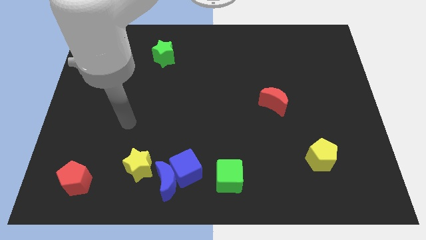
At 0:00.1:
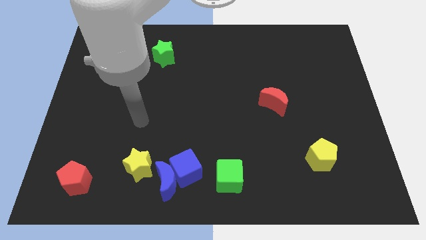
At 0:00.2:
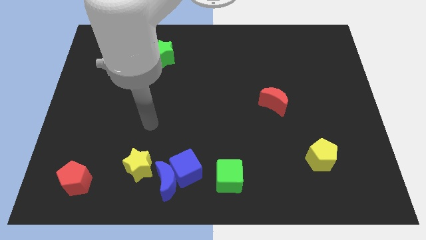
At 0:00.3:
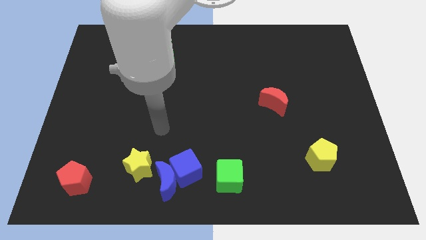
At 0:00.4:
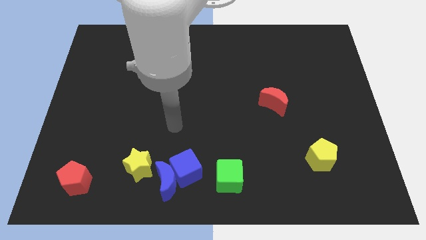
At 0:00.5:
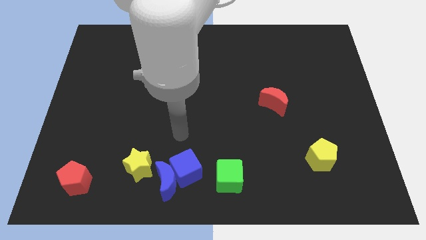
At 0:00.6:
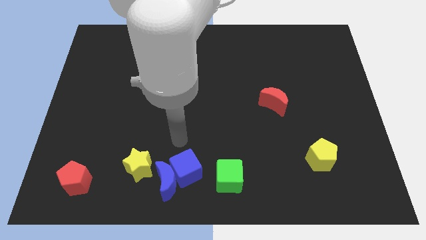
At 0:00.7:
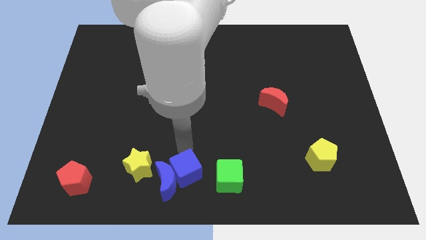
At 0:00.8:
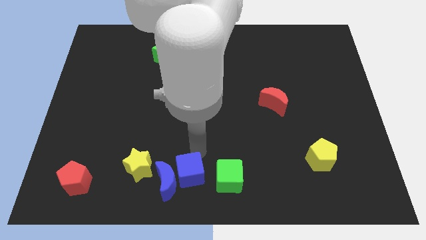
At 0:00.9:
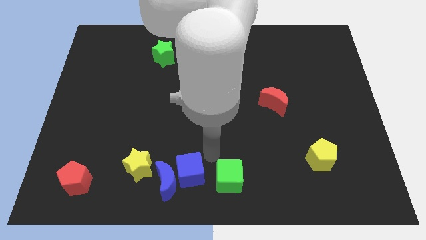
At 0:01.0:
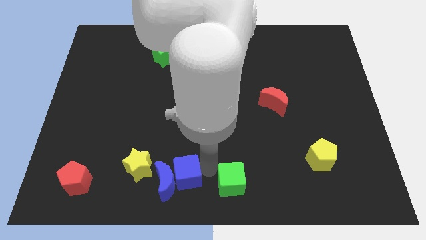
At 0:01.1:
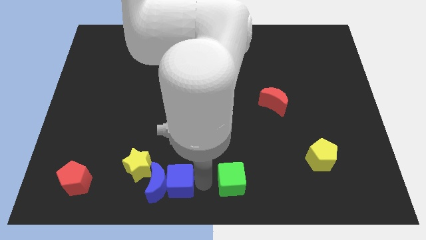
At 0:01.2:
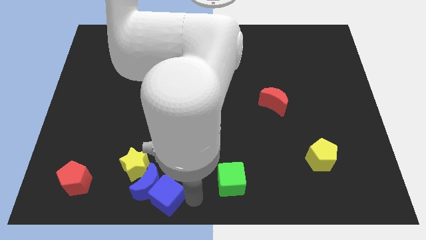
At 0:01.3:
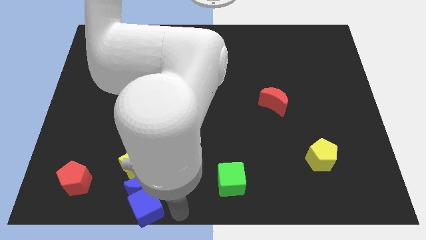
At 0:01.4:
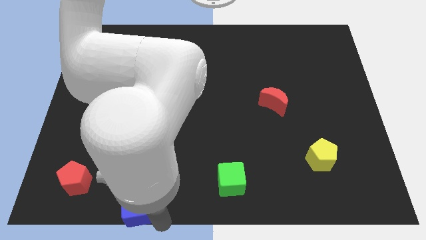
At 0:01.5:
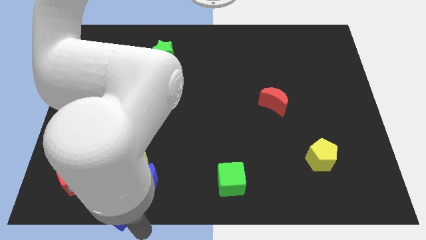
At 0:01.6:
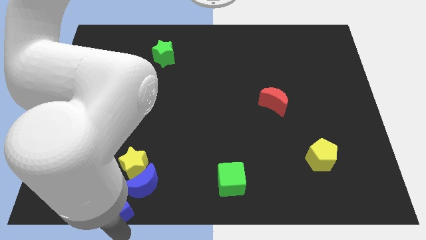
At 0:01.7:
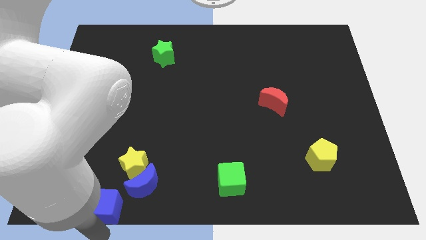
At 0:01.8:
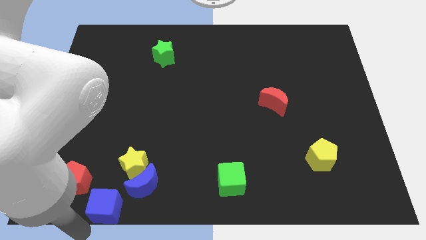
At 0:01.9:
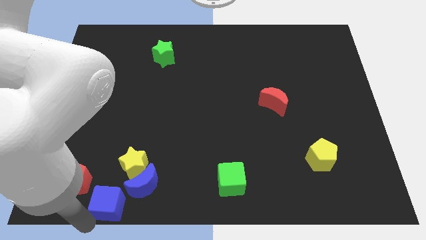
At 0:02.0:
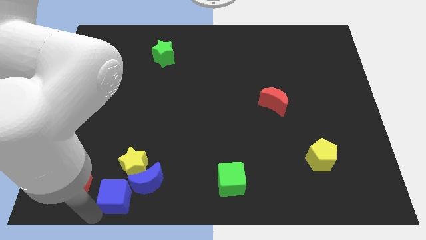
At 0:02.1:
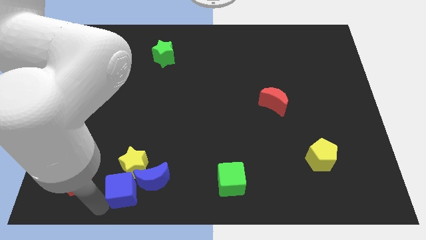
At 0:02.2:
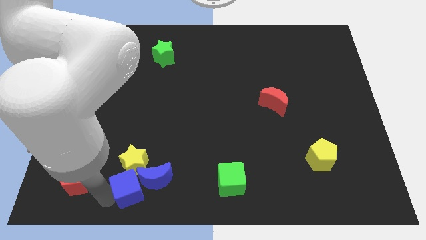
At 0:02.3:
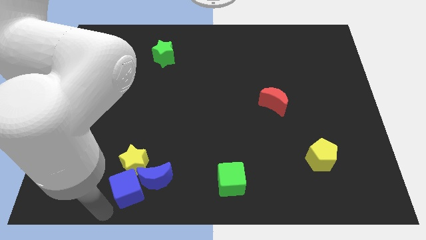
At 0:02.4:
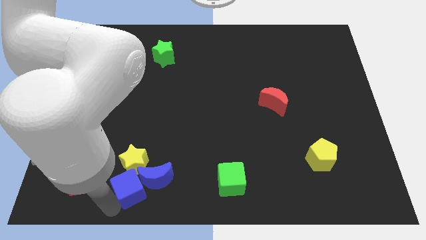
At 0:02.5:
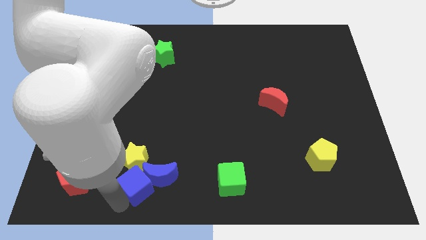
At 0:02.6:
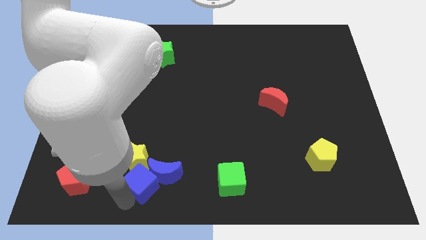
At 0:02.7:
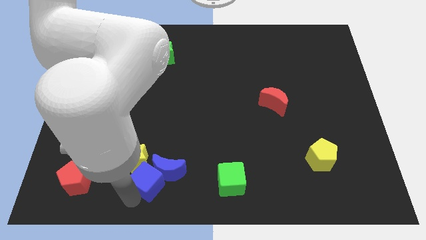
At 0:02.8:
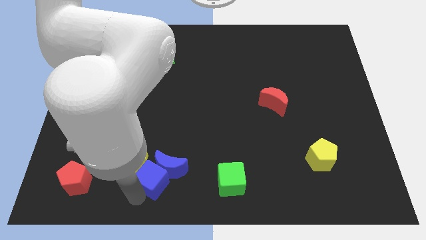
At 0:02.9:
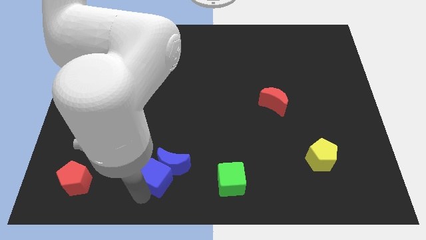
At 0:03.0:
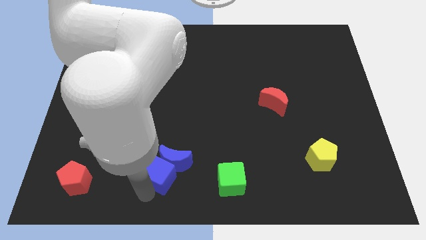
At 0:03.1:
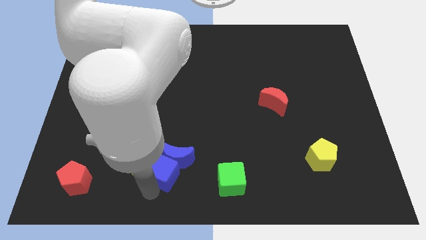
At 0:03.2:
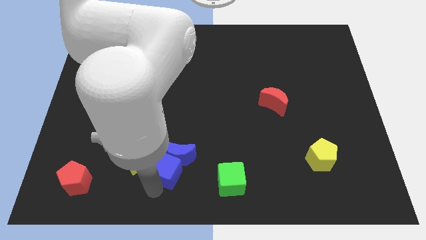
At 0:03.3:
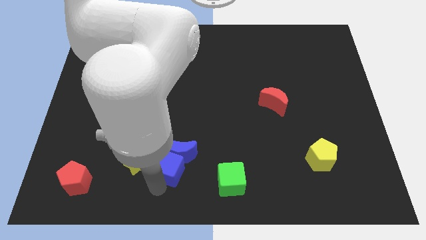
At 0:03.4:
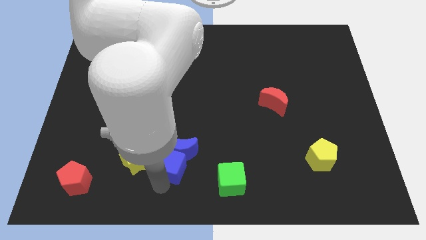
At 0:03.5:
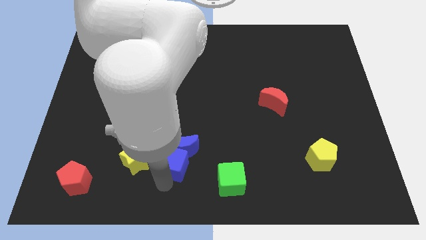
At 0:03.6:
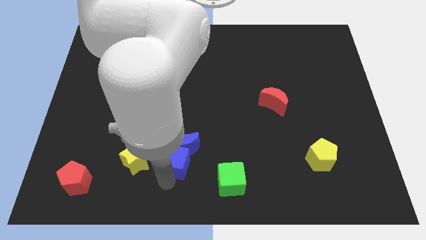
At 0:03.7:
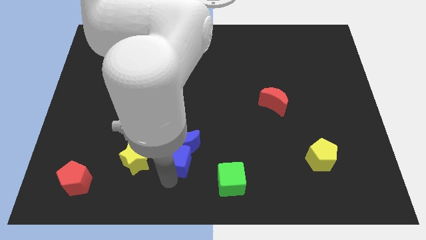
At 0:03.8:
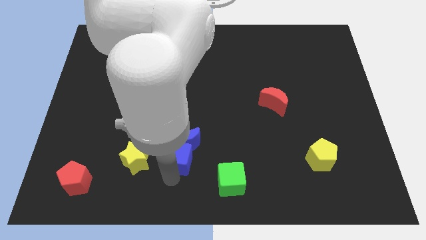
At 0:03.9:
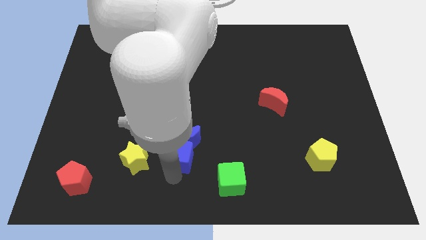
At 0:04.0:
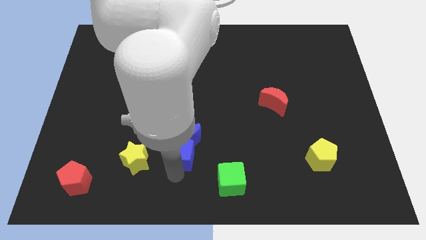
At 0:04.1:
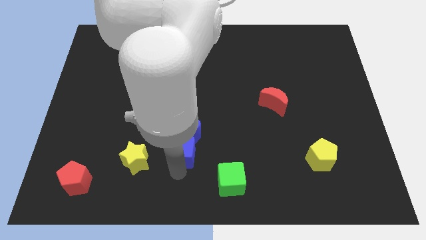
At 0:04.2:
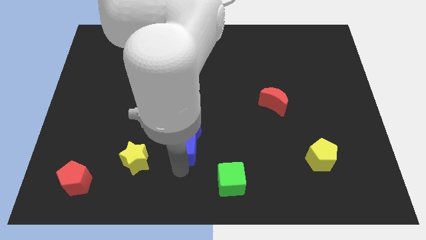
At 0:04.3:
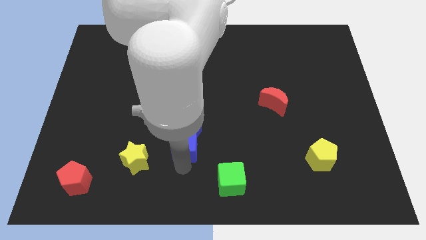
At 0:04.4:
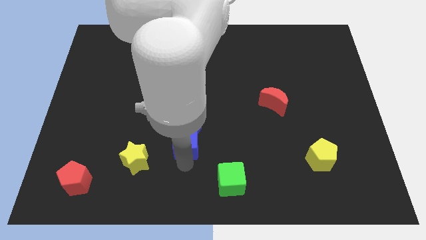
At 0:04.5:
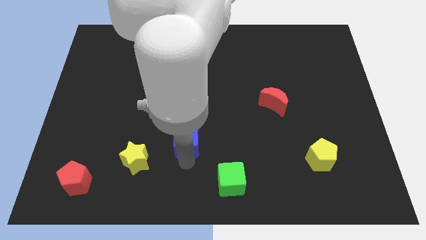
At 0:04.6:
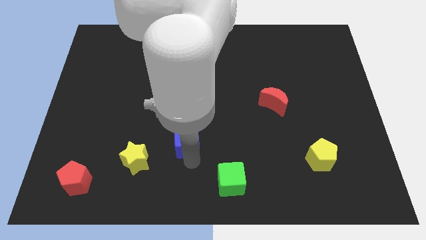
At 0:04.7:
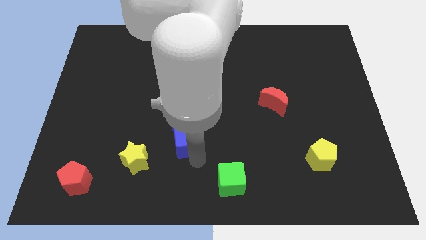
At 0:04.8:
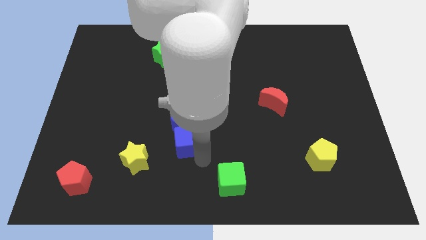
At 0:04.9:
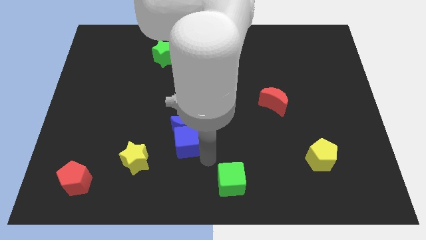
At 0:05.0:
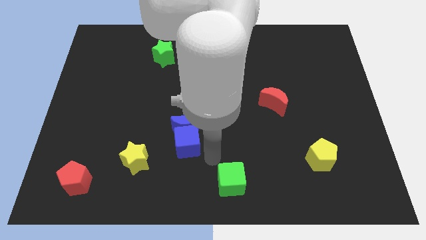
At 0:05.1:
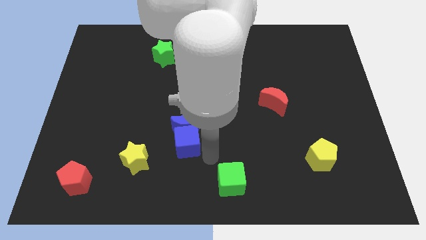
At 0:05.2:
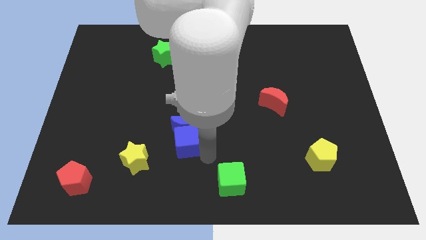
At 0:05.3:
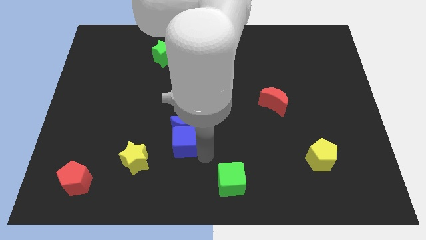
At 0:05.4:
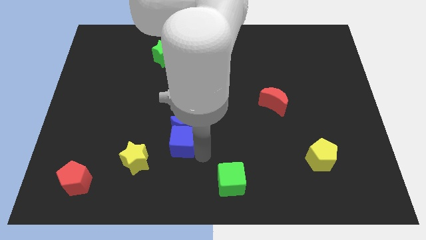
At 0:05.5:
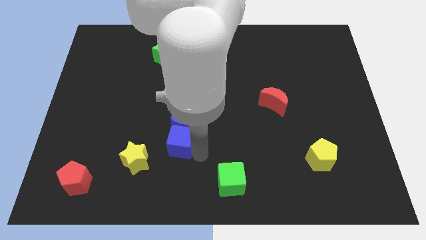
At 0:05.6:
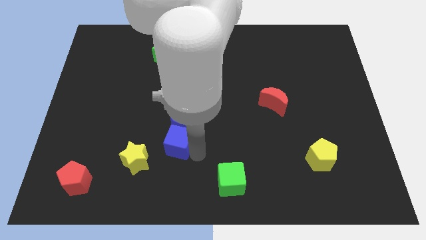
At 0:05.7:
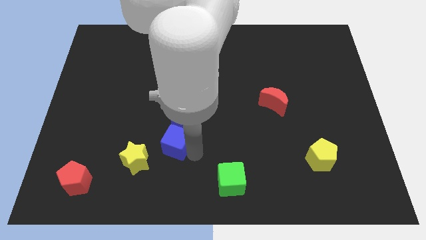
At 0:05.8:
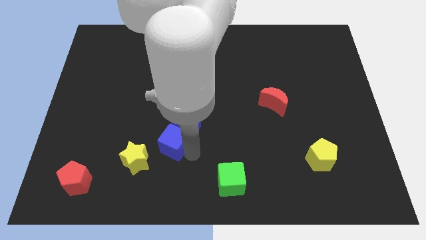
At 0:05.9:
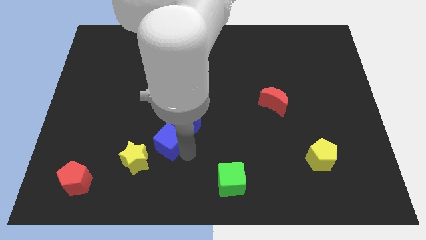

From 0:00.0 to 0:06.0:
slide the blue cube a little bit up and to the left diagonally

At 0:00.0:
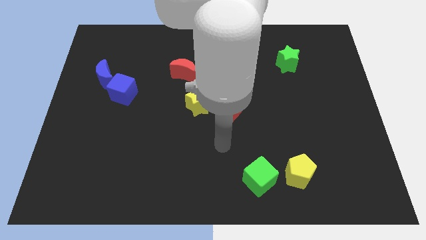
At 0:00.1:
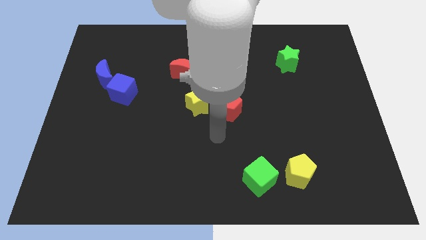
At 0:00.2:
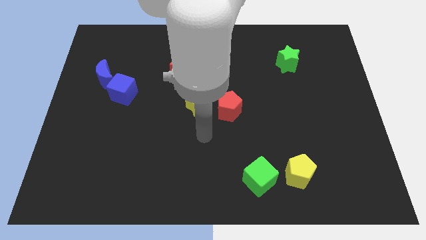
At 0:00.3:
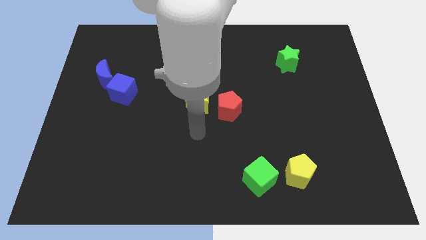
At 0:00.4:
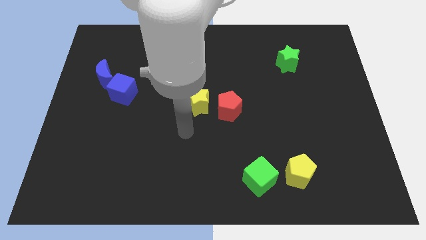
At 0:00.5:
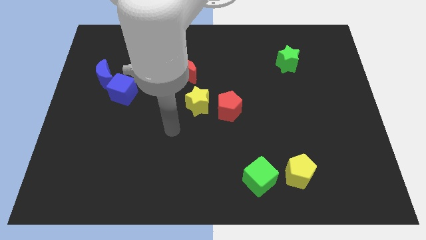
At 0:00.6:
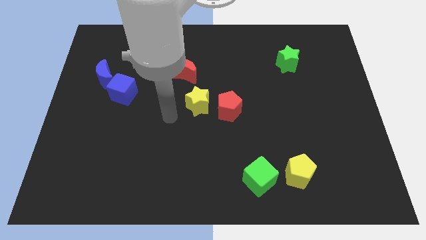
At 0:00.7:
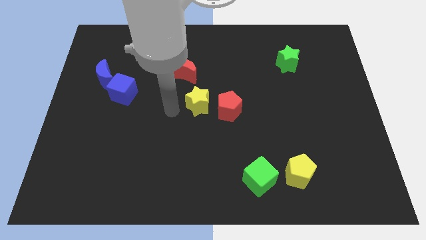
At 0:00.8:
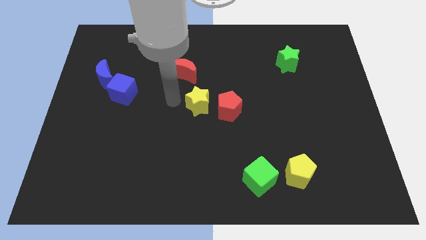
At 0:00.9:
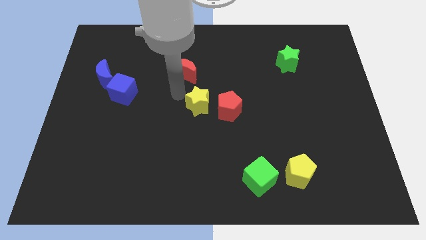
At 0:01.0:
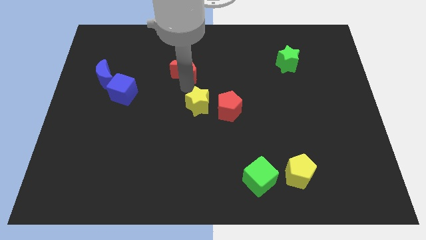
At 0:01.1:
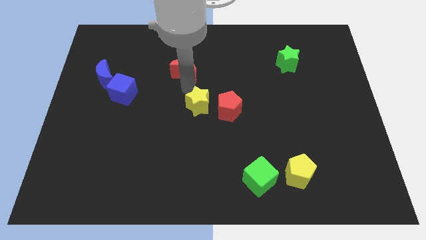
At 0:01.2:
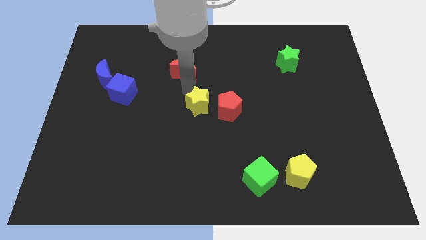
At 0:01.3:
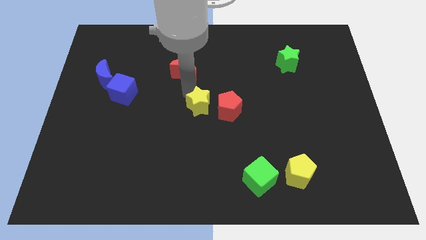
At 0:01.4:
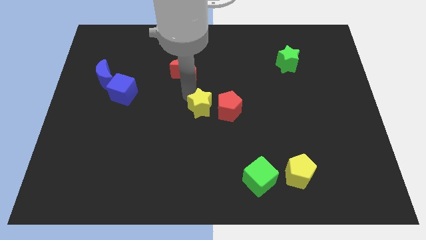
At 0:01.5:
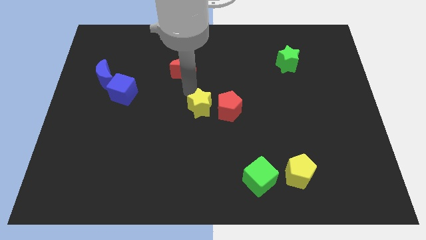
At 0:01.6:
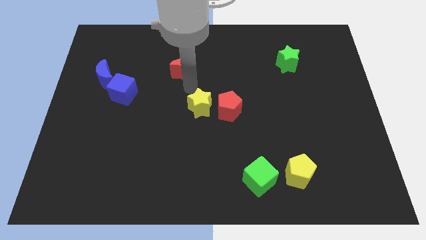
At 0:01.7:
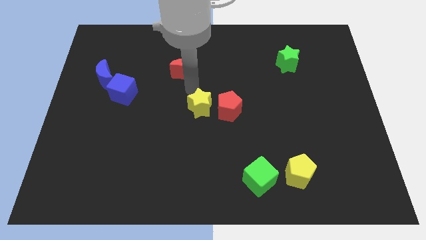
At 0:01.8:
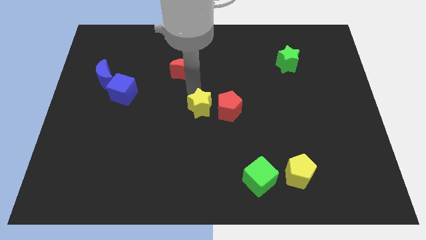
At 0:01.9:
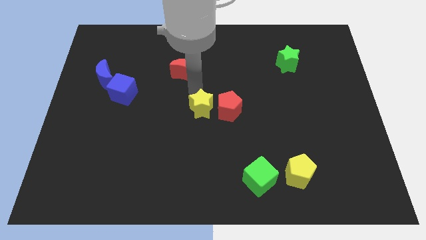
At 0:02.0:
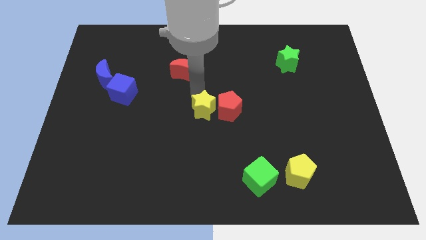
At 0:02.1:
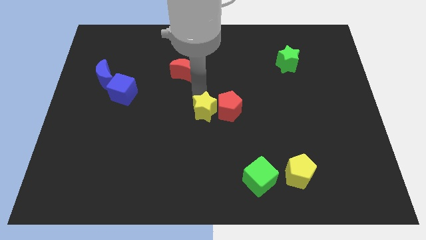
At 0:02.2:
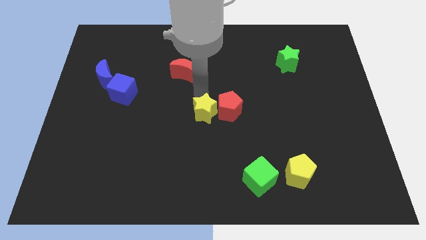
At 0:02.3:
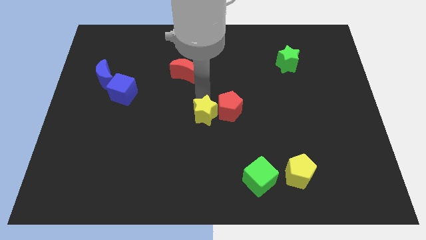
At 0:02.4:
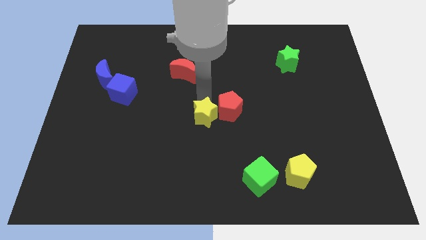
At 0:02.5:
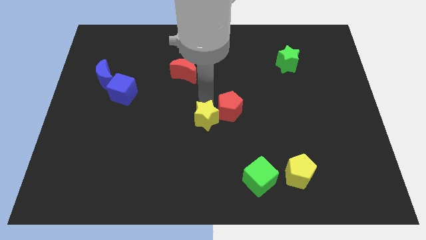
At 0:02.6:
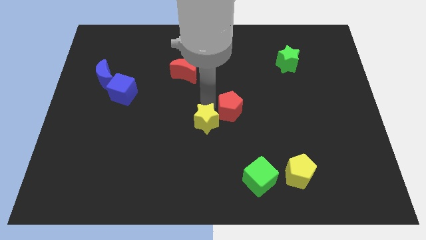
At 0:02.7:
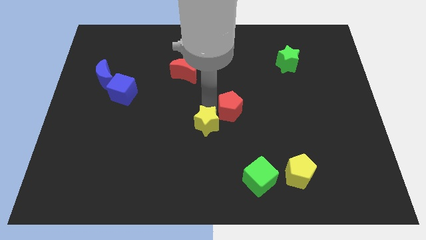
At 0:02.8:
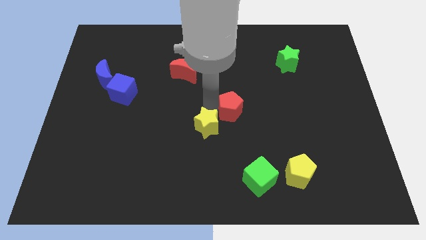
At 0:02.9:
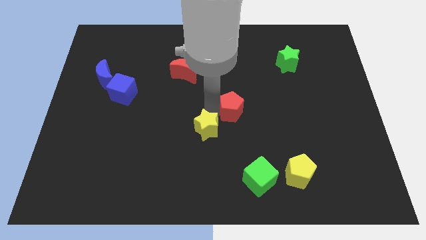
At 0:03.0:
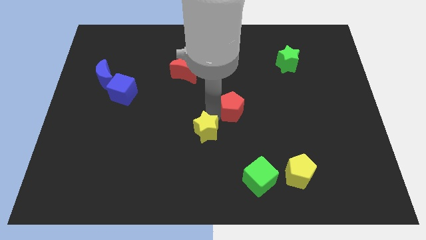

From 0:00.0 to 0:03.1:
slide the yellow star down a little bit
